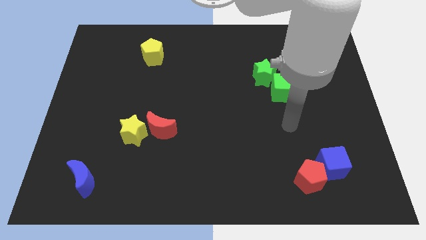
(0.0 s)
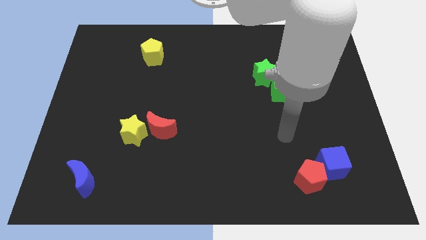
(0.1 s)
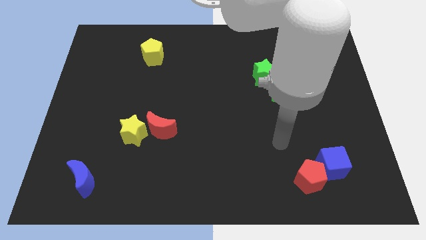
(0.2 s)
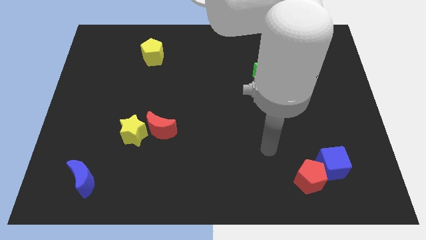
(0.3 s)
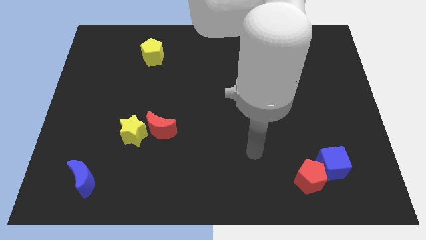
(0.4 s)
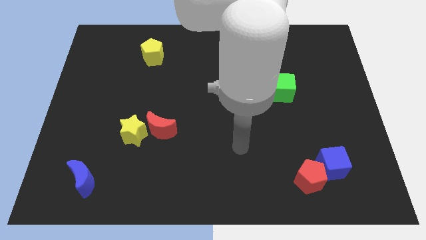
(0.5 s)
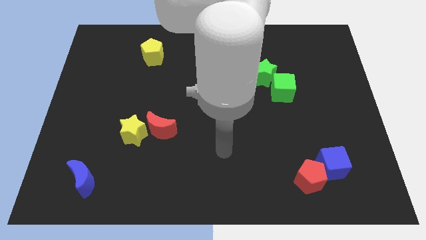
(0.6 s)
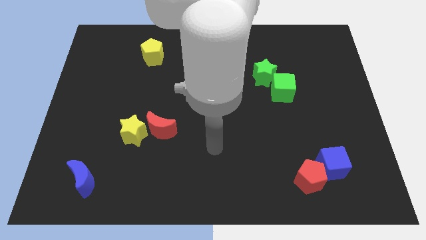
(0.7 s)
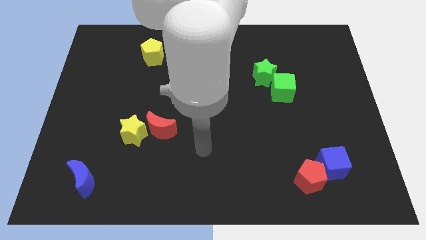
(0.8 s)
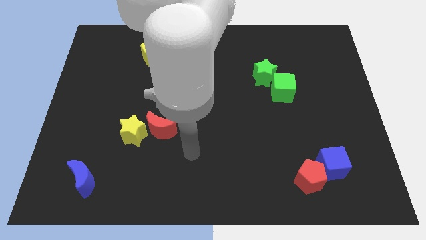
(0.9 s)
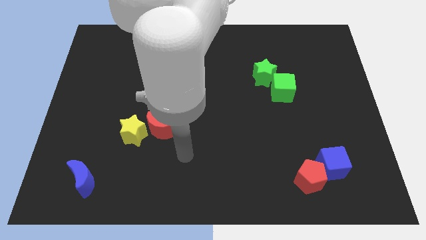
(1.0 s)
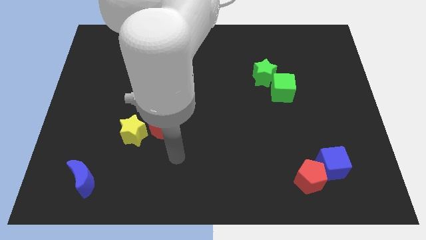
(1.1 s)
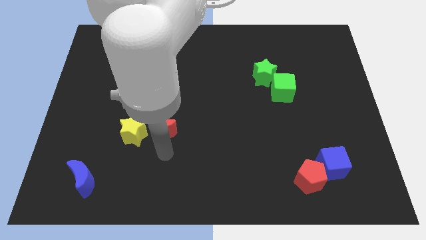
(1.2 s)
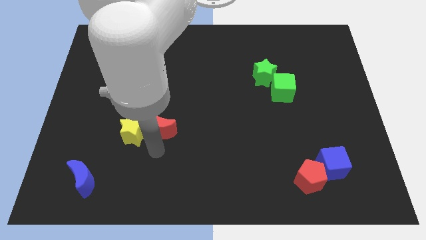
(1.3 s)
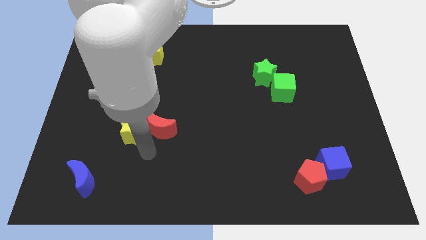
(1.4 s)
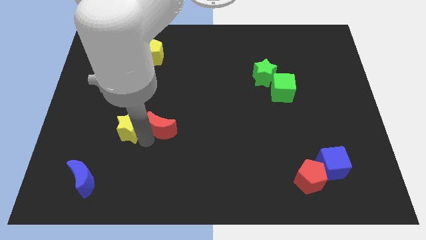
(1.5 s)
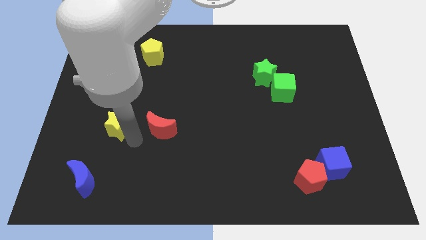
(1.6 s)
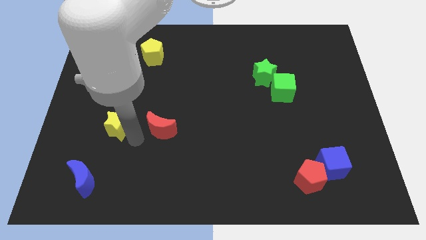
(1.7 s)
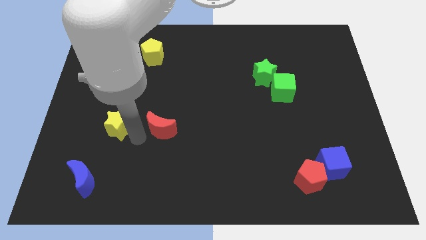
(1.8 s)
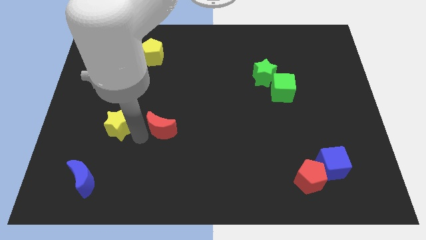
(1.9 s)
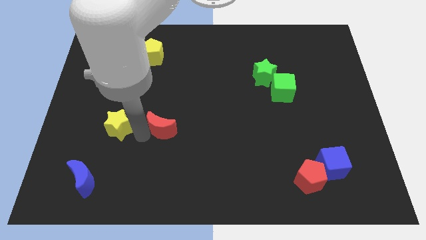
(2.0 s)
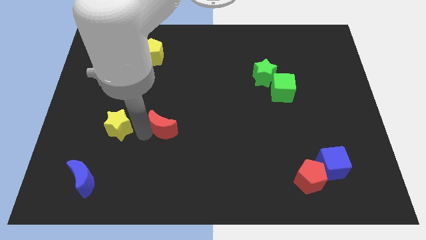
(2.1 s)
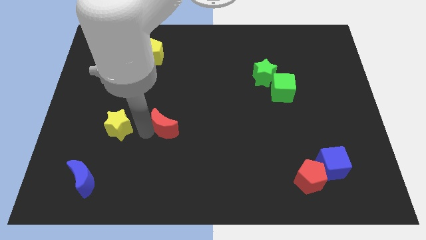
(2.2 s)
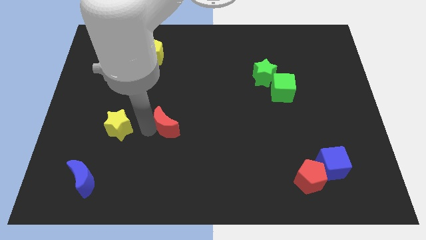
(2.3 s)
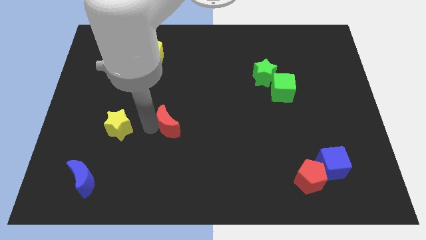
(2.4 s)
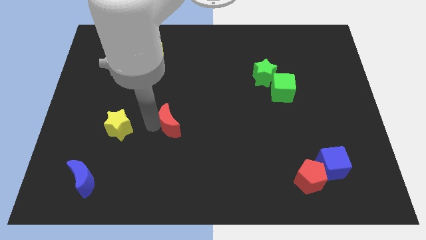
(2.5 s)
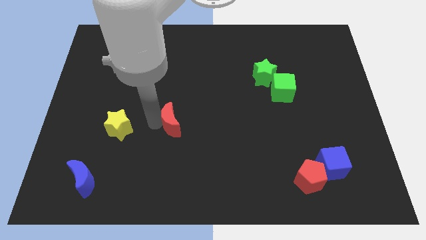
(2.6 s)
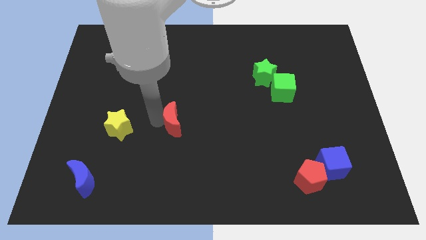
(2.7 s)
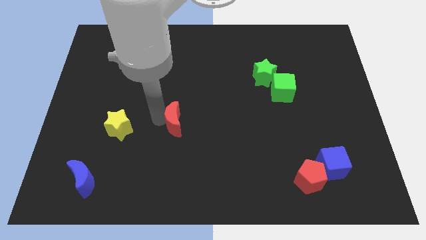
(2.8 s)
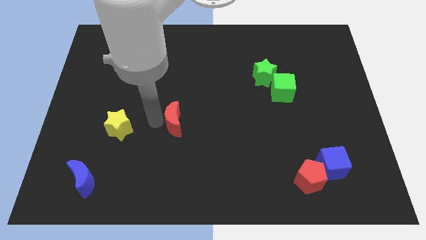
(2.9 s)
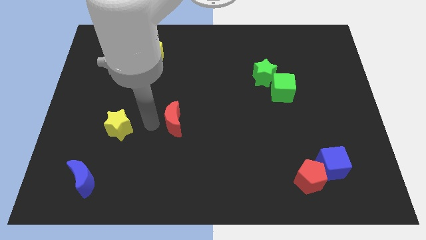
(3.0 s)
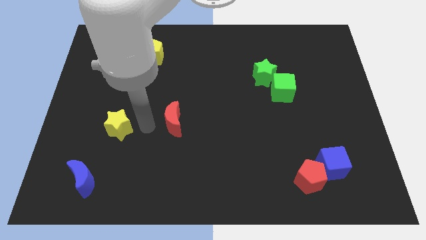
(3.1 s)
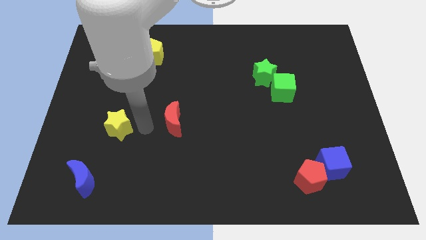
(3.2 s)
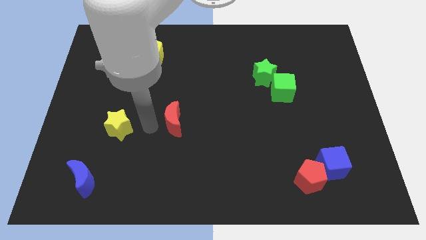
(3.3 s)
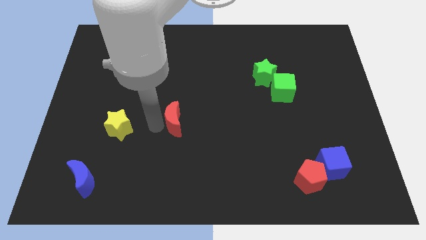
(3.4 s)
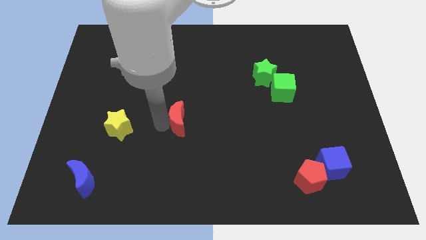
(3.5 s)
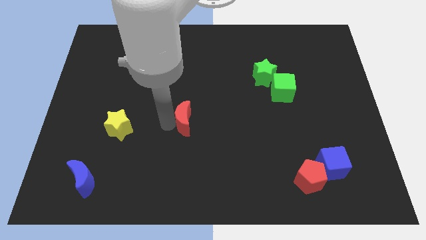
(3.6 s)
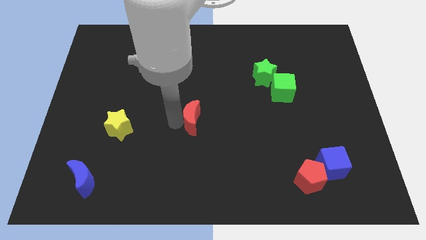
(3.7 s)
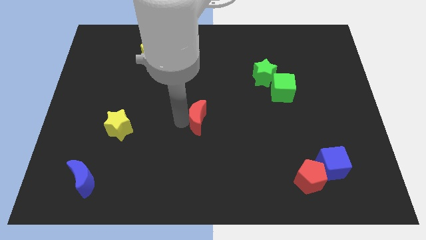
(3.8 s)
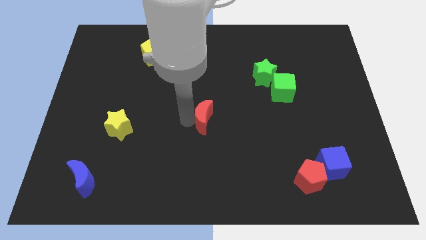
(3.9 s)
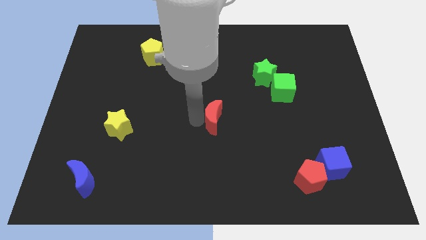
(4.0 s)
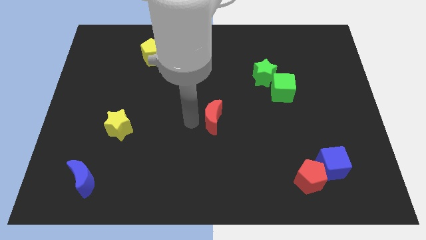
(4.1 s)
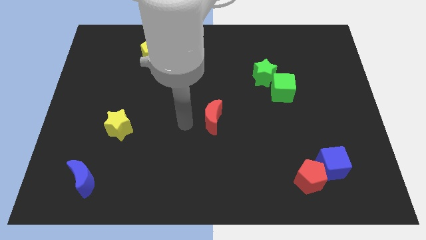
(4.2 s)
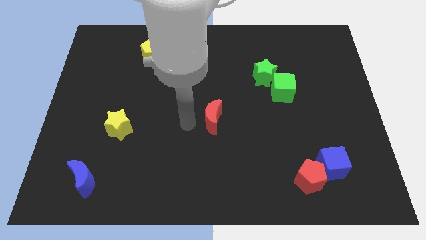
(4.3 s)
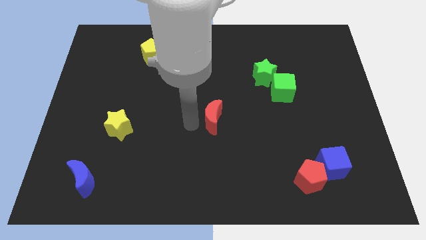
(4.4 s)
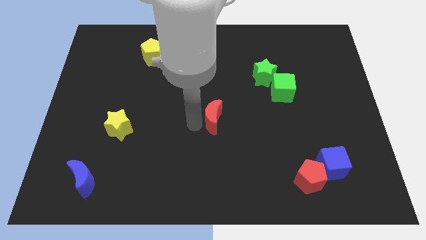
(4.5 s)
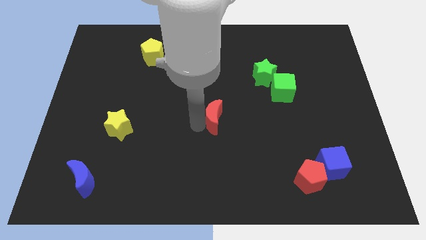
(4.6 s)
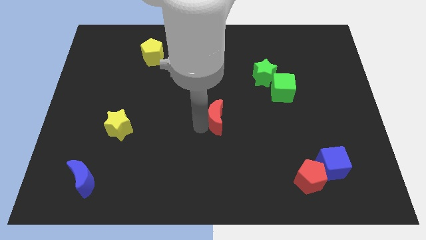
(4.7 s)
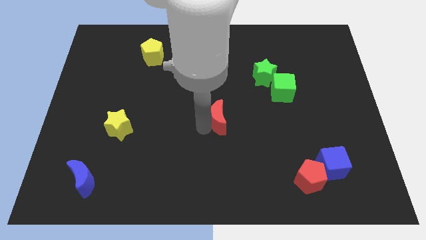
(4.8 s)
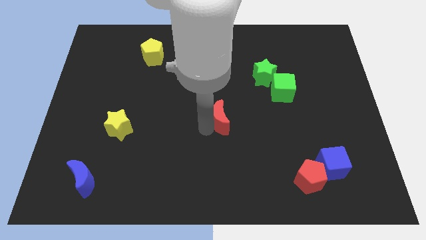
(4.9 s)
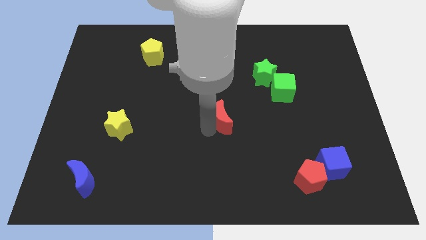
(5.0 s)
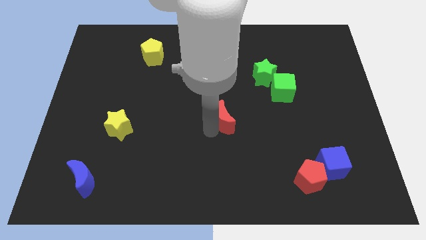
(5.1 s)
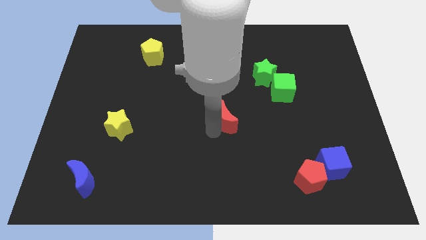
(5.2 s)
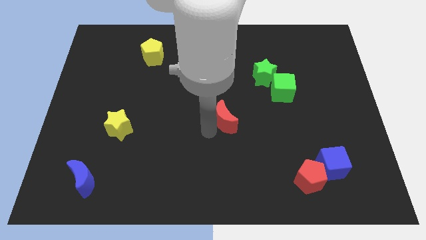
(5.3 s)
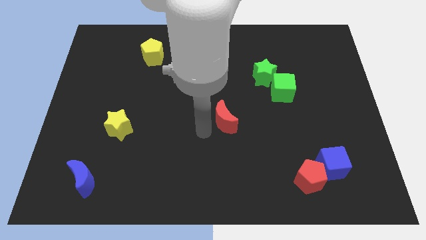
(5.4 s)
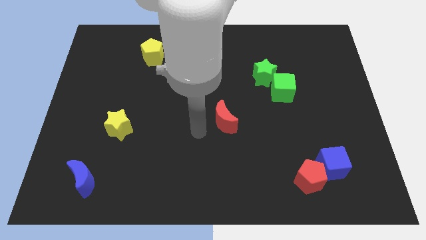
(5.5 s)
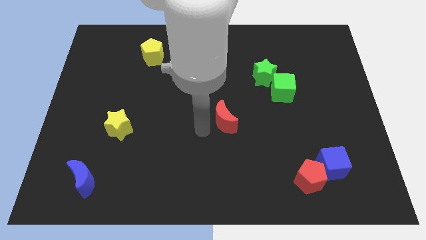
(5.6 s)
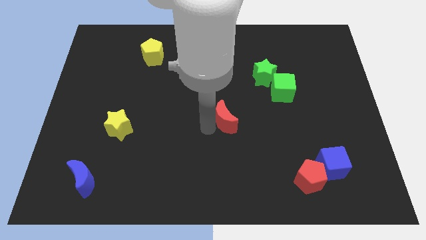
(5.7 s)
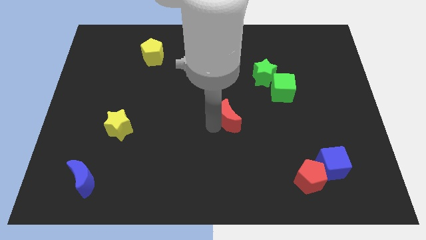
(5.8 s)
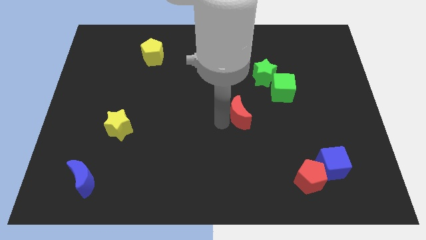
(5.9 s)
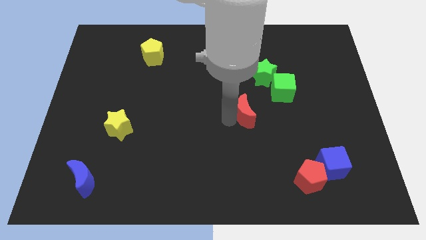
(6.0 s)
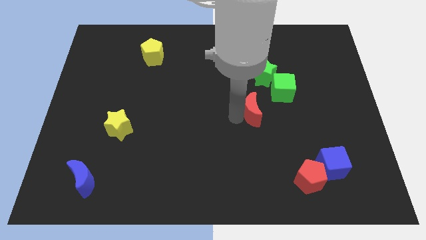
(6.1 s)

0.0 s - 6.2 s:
move the red moon to the bottom of the green star

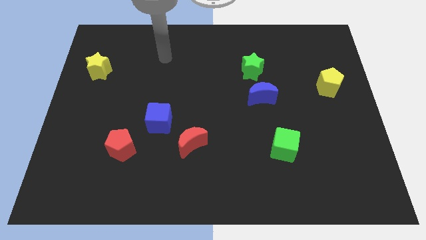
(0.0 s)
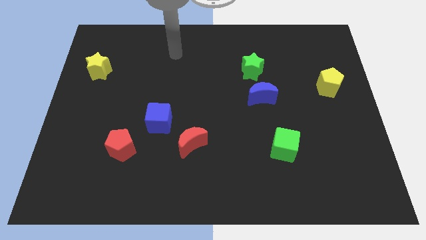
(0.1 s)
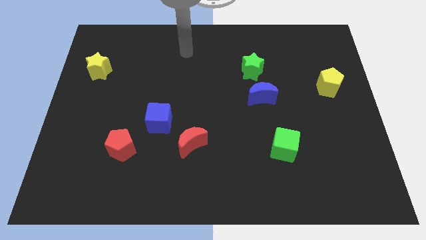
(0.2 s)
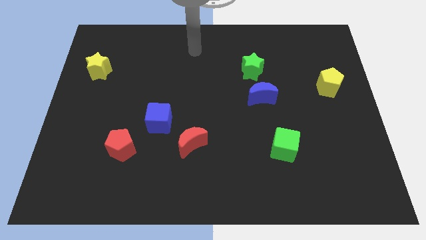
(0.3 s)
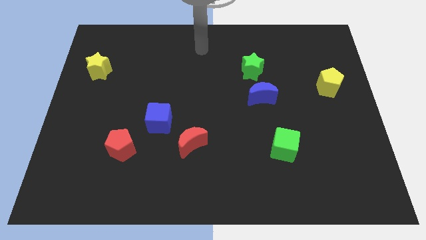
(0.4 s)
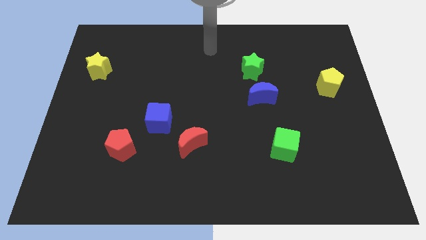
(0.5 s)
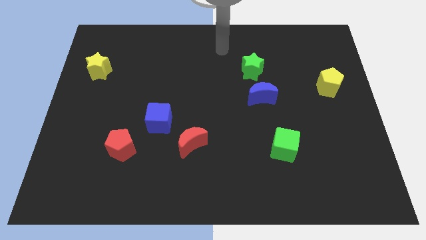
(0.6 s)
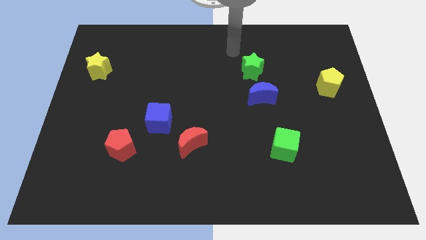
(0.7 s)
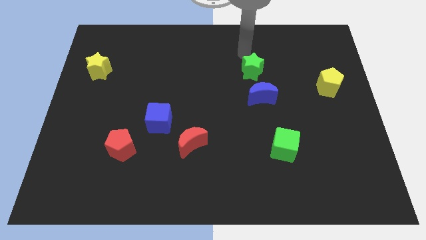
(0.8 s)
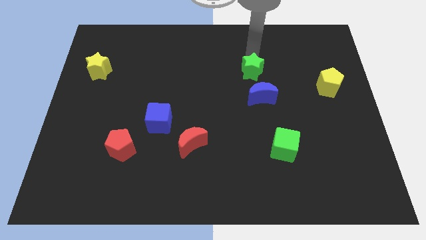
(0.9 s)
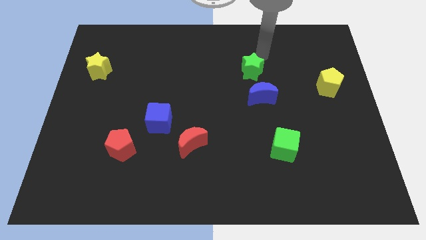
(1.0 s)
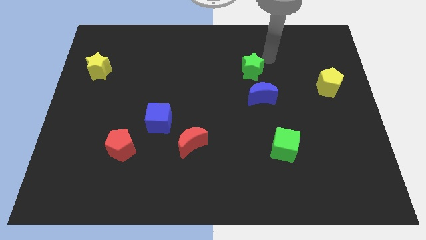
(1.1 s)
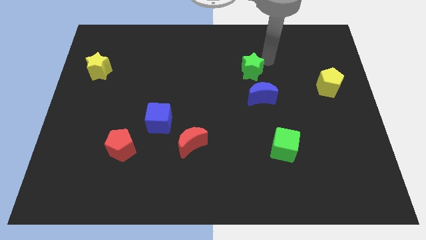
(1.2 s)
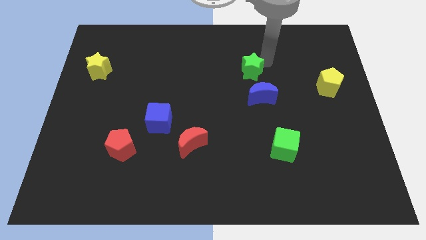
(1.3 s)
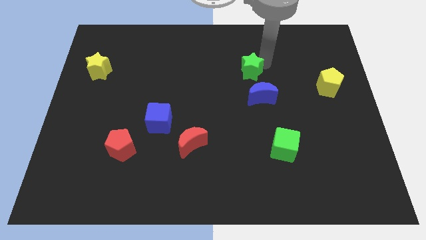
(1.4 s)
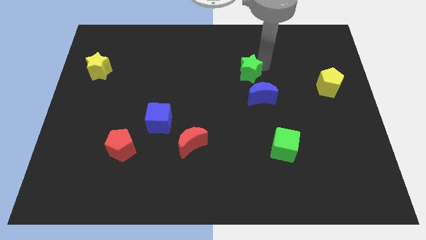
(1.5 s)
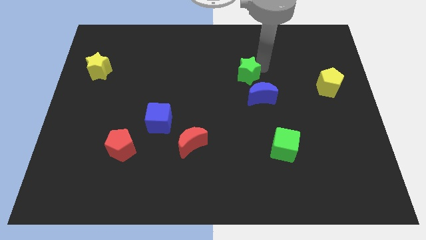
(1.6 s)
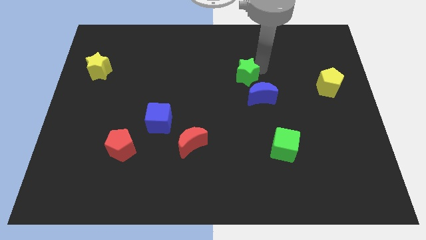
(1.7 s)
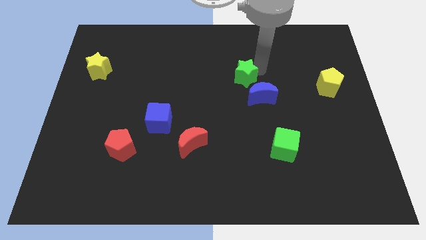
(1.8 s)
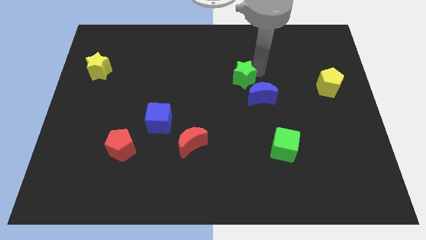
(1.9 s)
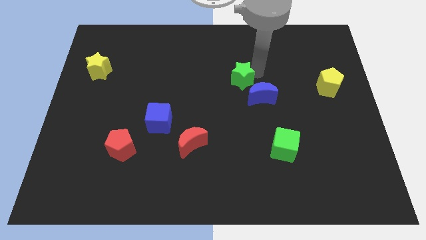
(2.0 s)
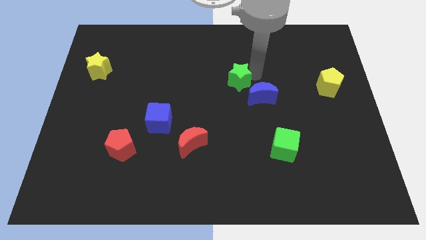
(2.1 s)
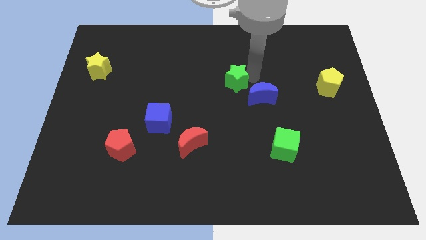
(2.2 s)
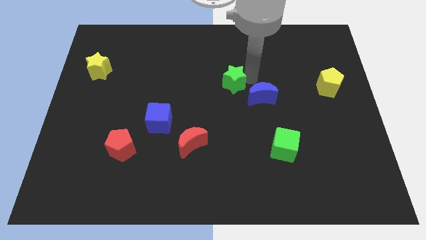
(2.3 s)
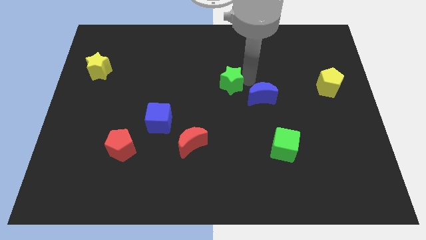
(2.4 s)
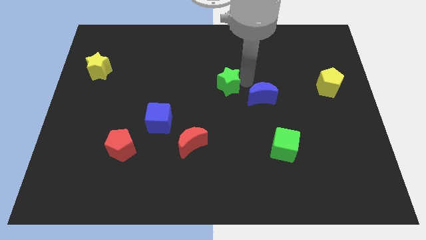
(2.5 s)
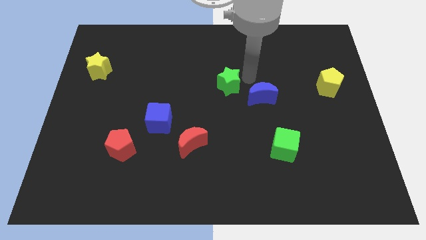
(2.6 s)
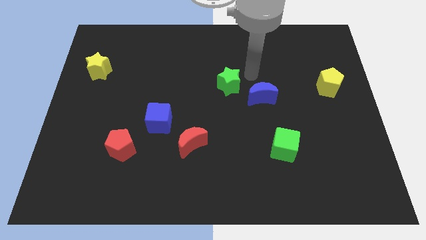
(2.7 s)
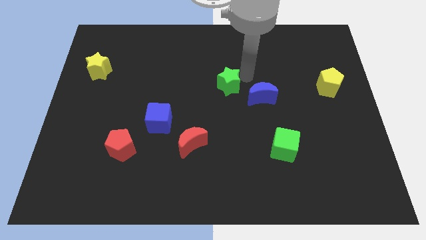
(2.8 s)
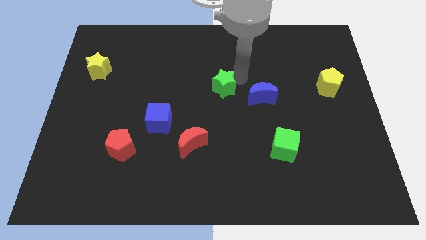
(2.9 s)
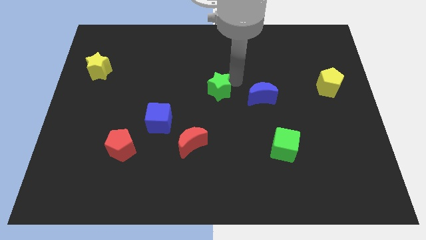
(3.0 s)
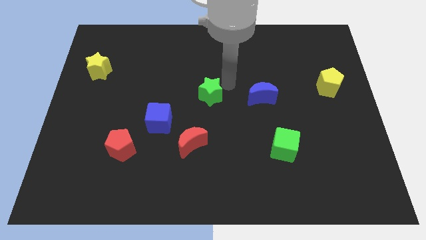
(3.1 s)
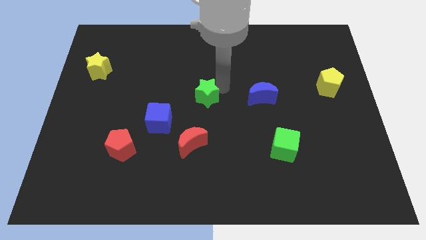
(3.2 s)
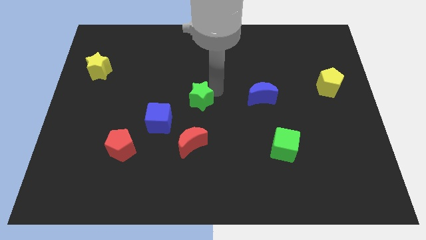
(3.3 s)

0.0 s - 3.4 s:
push the green star to the top right of the blue cube
